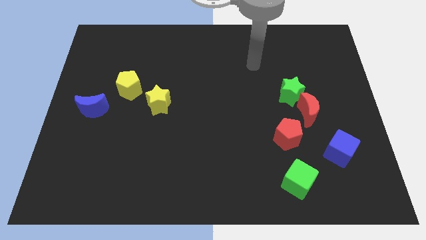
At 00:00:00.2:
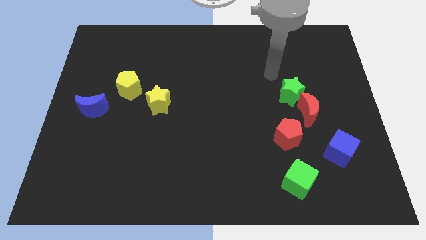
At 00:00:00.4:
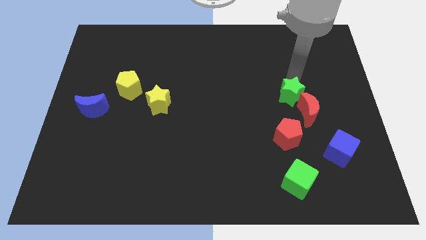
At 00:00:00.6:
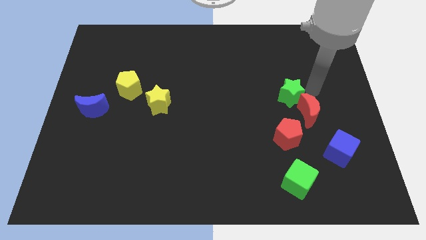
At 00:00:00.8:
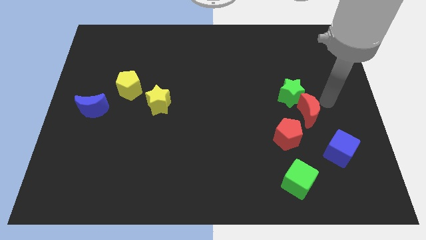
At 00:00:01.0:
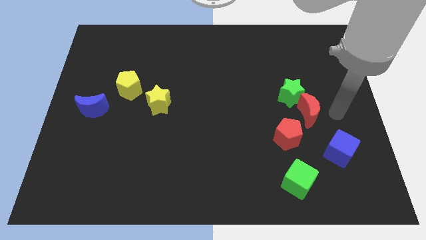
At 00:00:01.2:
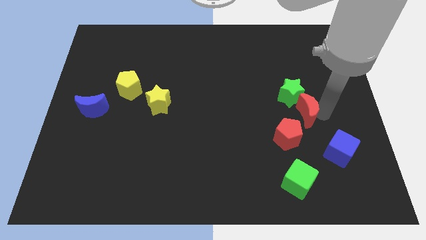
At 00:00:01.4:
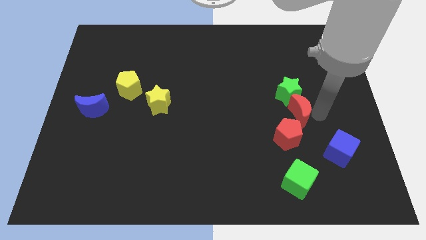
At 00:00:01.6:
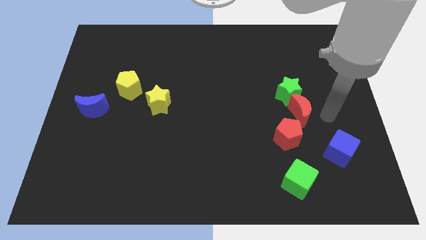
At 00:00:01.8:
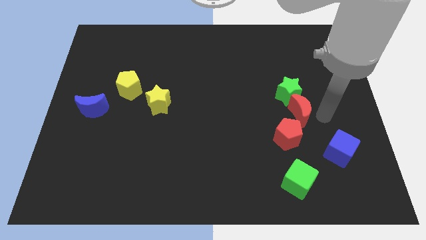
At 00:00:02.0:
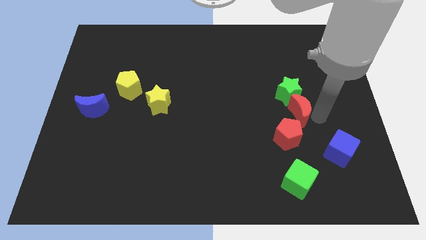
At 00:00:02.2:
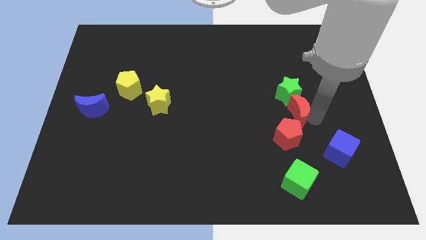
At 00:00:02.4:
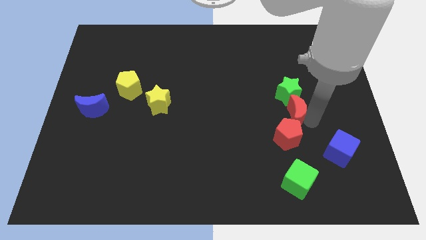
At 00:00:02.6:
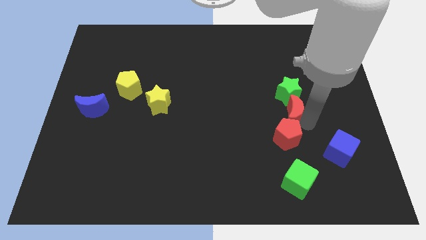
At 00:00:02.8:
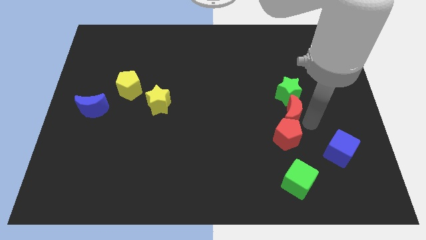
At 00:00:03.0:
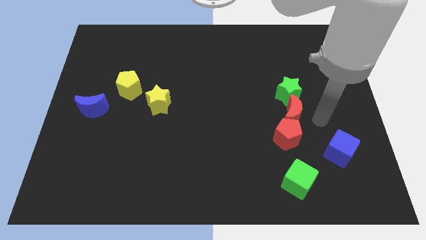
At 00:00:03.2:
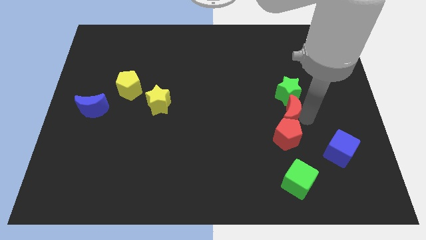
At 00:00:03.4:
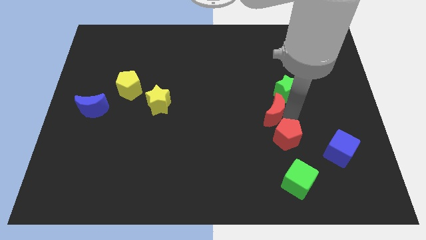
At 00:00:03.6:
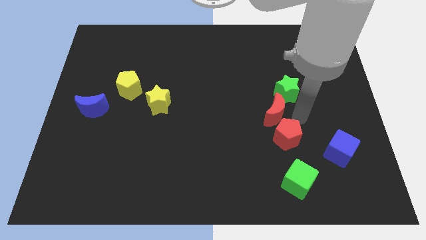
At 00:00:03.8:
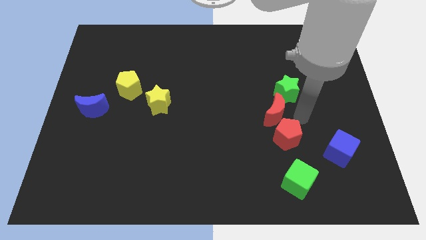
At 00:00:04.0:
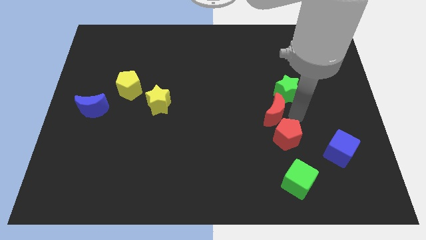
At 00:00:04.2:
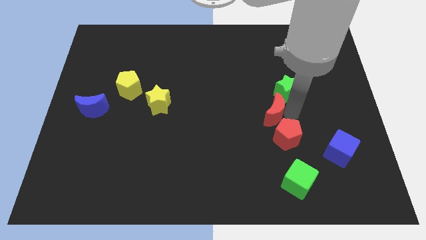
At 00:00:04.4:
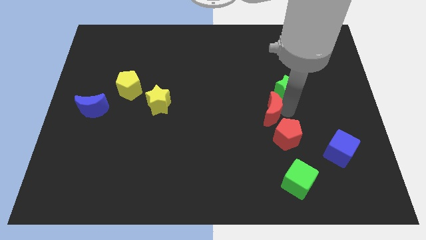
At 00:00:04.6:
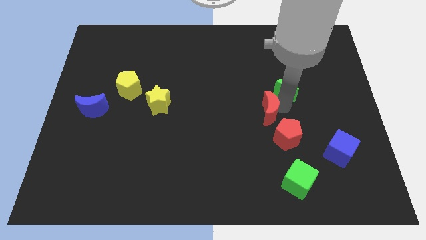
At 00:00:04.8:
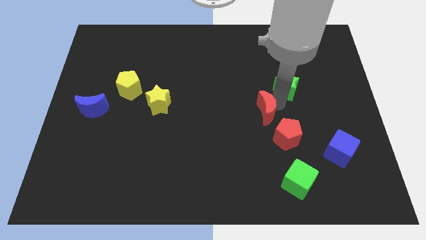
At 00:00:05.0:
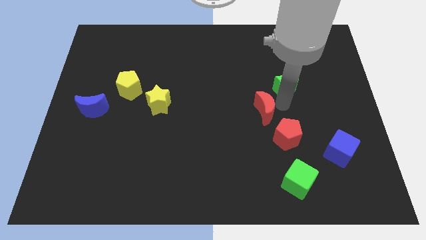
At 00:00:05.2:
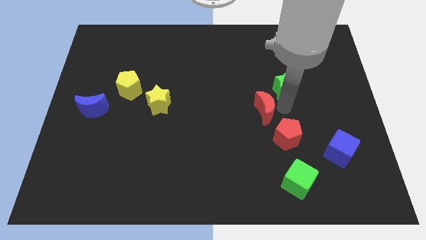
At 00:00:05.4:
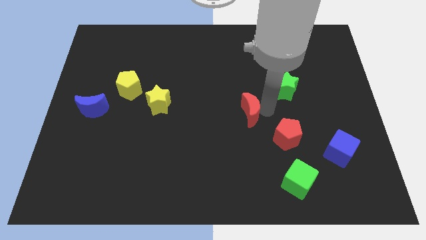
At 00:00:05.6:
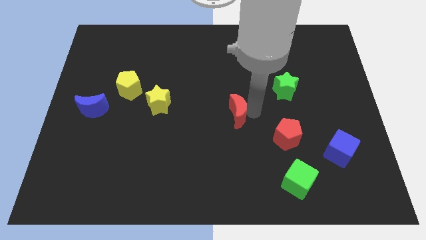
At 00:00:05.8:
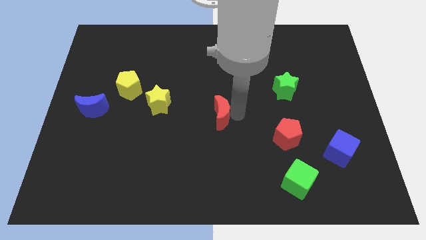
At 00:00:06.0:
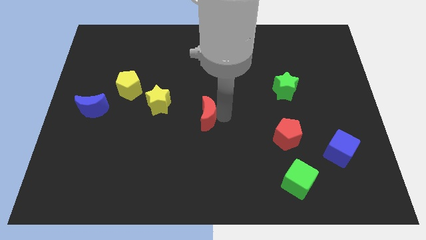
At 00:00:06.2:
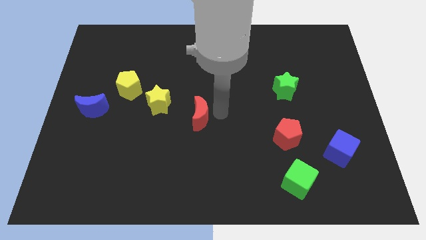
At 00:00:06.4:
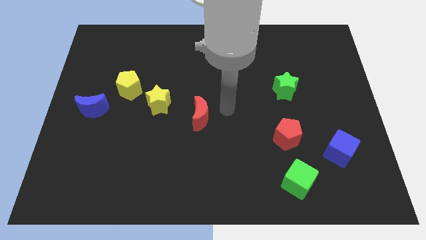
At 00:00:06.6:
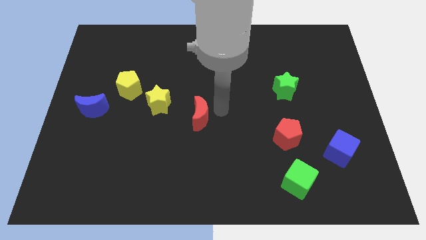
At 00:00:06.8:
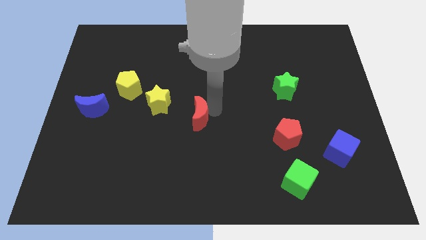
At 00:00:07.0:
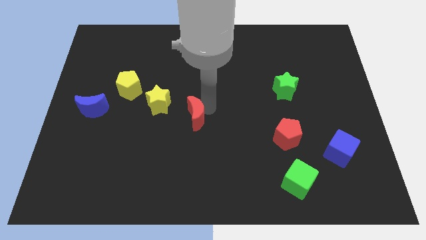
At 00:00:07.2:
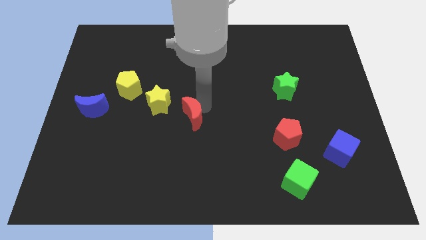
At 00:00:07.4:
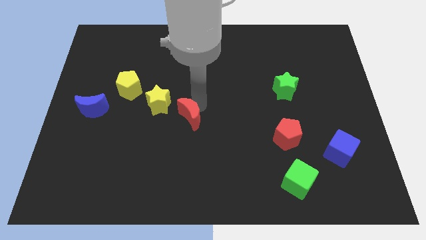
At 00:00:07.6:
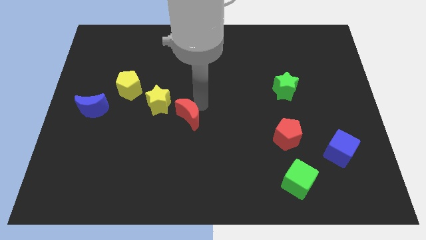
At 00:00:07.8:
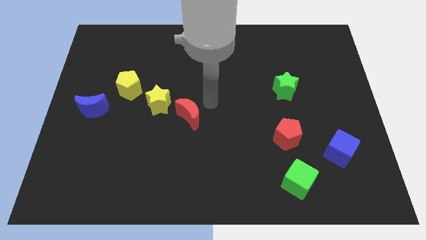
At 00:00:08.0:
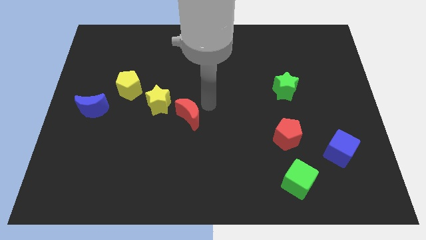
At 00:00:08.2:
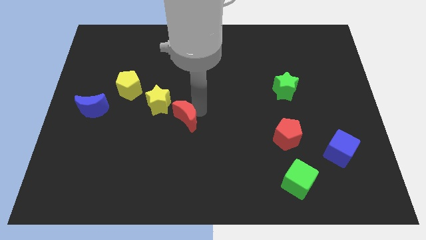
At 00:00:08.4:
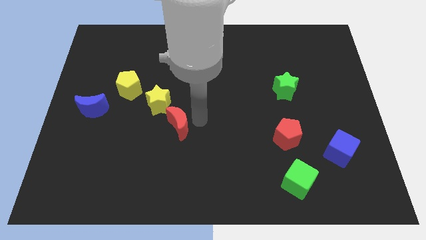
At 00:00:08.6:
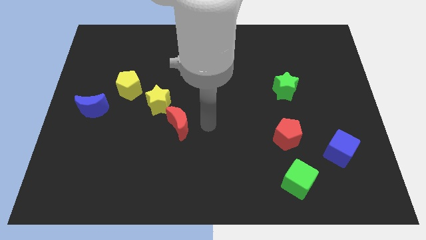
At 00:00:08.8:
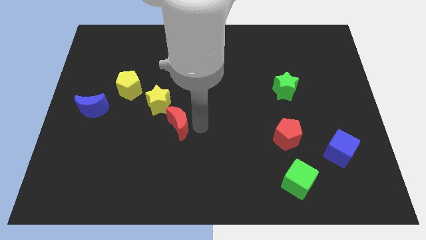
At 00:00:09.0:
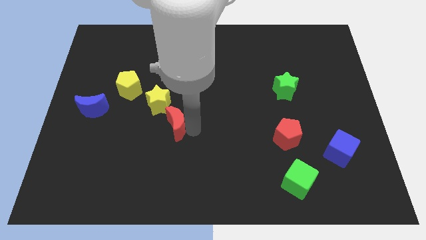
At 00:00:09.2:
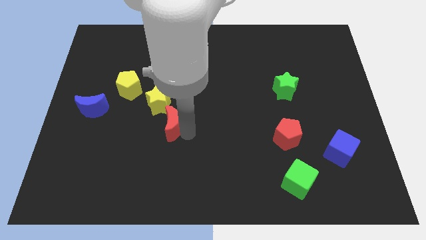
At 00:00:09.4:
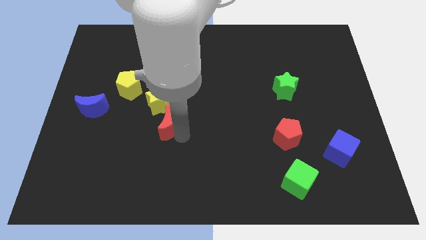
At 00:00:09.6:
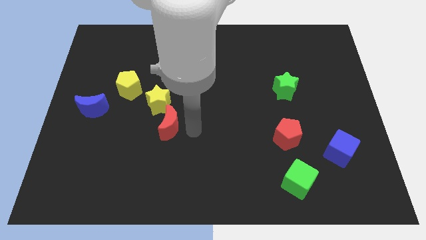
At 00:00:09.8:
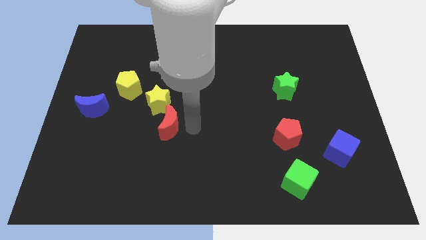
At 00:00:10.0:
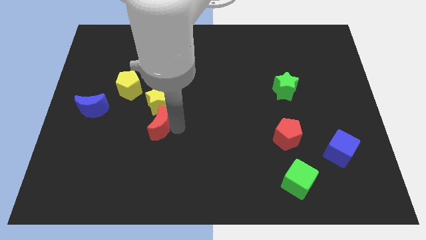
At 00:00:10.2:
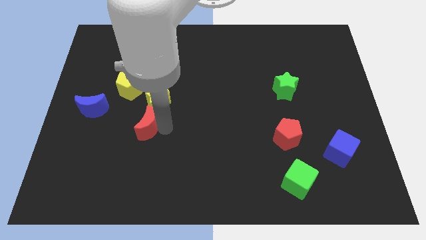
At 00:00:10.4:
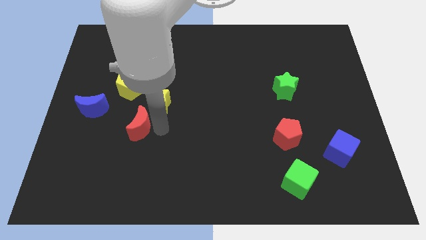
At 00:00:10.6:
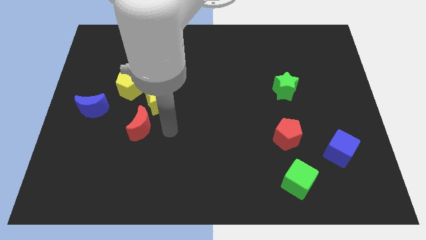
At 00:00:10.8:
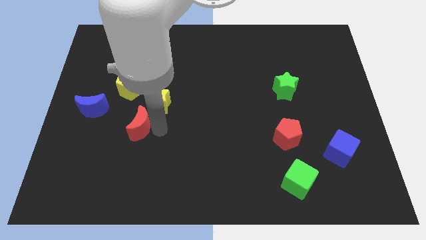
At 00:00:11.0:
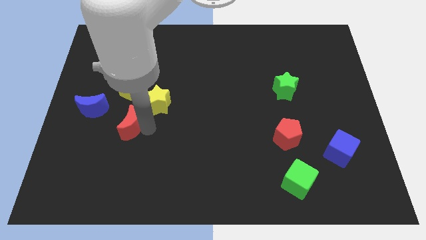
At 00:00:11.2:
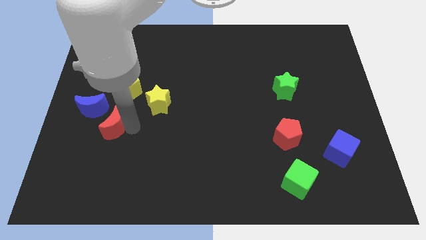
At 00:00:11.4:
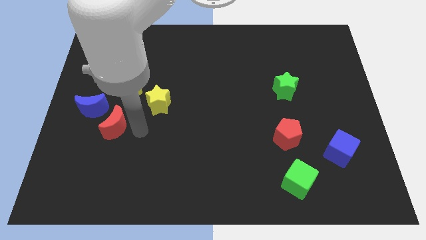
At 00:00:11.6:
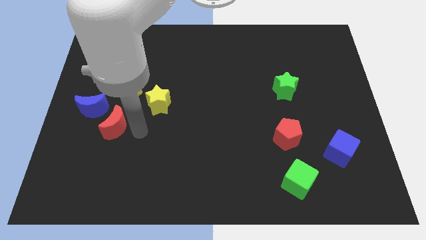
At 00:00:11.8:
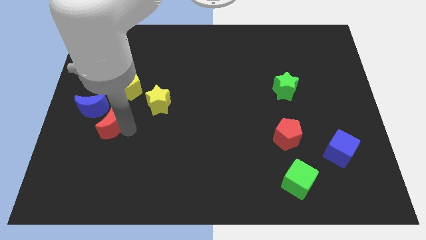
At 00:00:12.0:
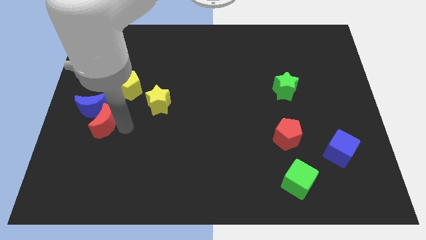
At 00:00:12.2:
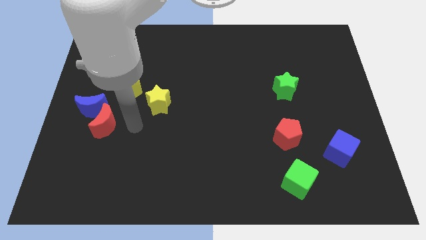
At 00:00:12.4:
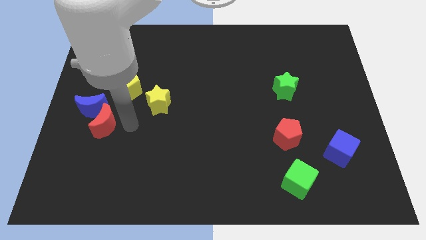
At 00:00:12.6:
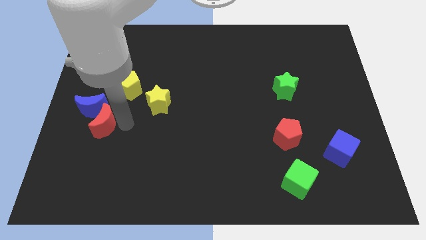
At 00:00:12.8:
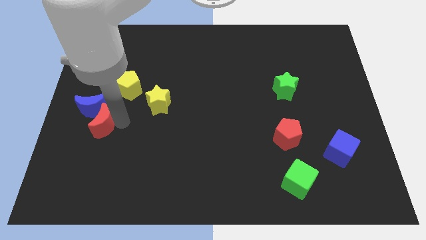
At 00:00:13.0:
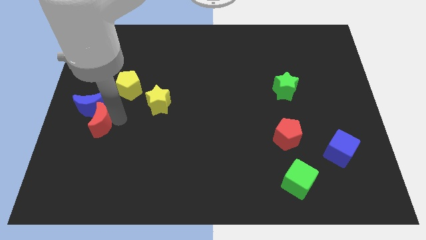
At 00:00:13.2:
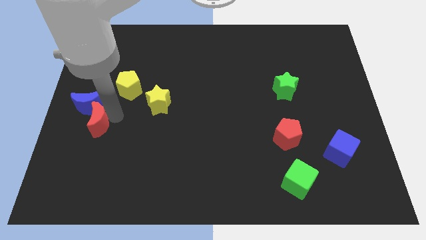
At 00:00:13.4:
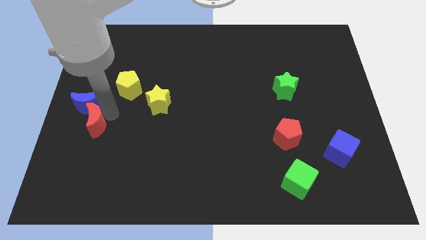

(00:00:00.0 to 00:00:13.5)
put the red moon to the left side of the board
